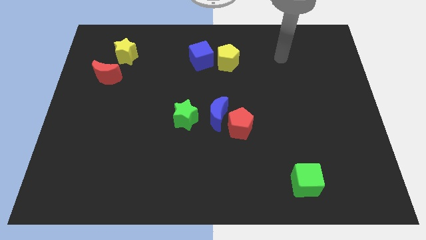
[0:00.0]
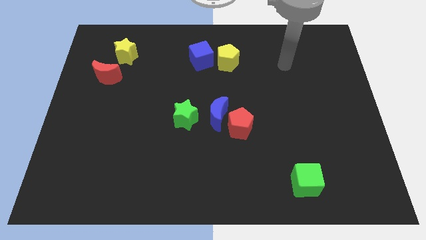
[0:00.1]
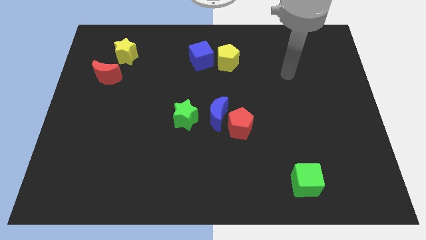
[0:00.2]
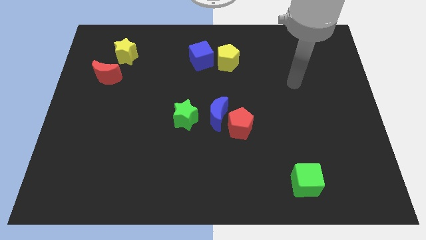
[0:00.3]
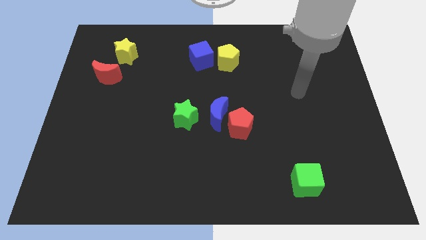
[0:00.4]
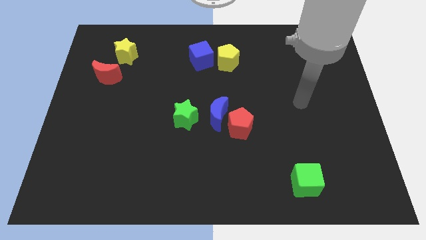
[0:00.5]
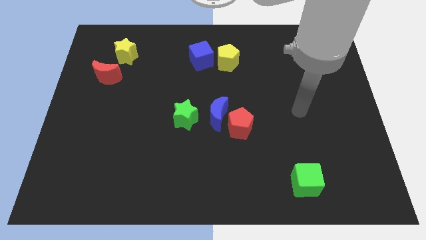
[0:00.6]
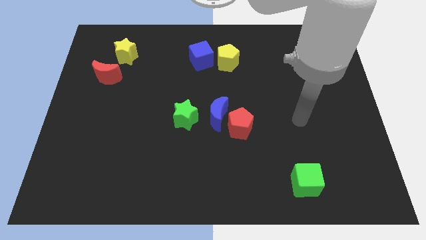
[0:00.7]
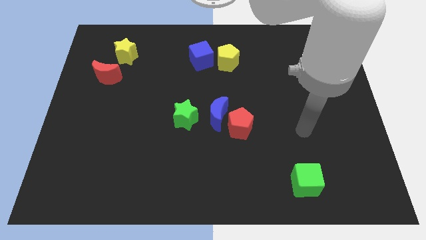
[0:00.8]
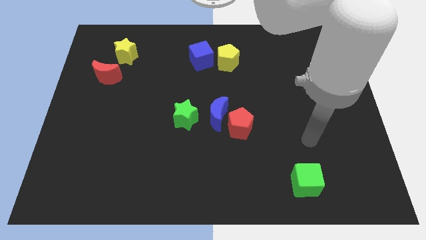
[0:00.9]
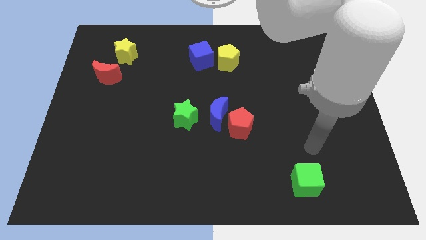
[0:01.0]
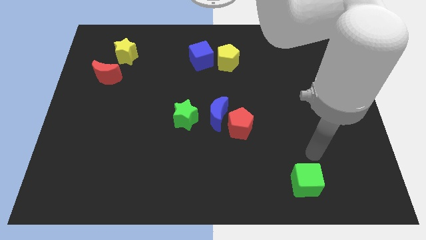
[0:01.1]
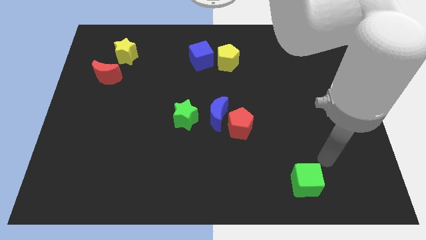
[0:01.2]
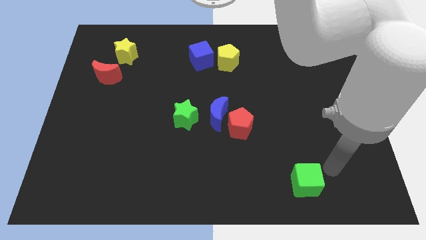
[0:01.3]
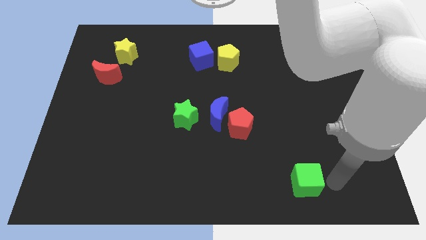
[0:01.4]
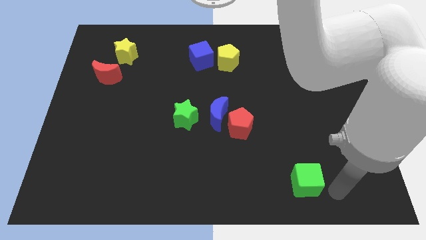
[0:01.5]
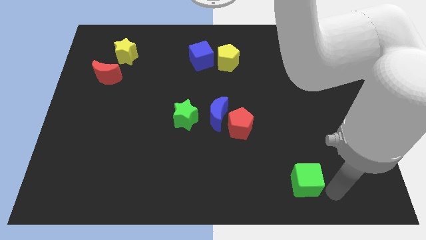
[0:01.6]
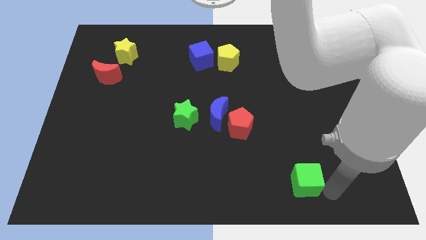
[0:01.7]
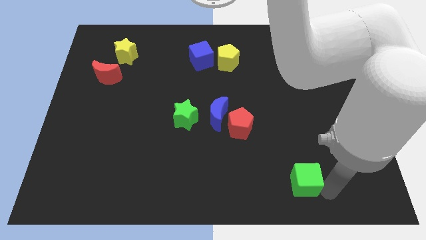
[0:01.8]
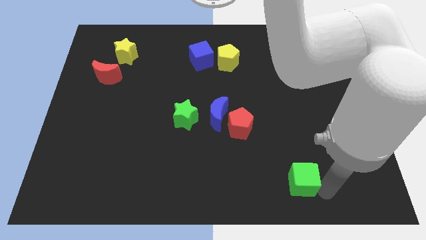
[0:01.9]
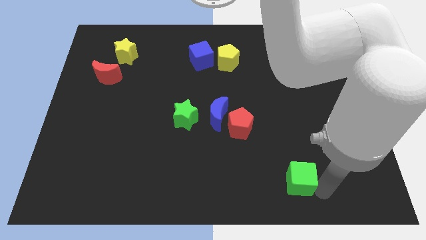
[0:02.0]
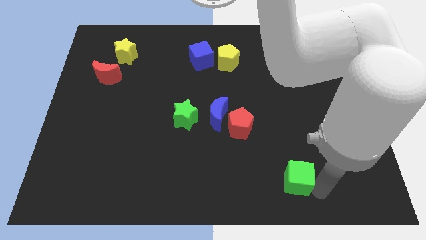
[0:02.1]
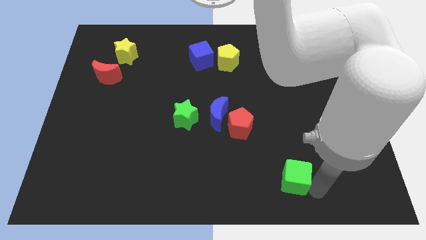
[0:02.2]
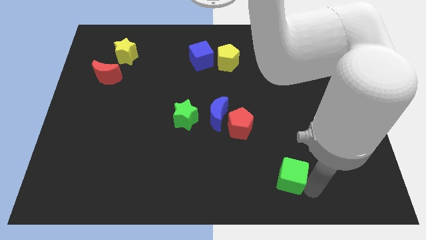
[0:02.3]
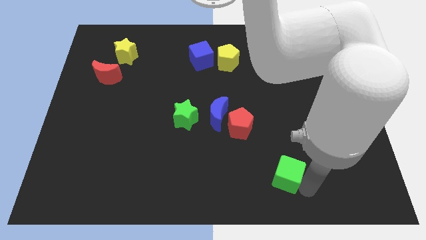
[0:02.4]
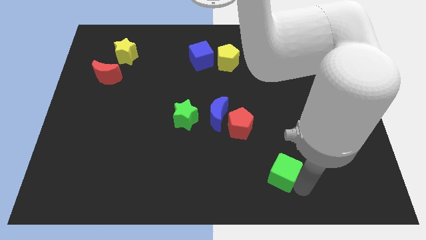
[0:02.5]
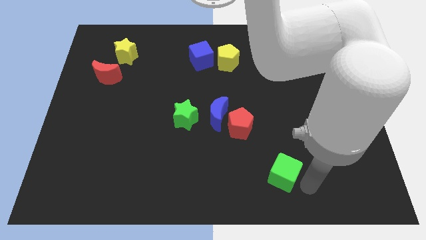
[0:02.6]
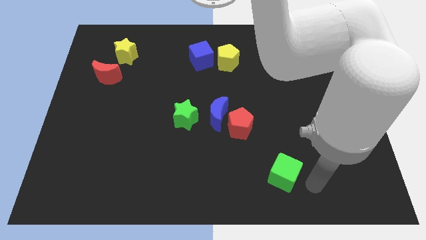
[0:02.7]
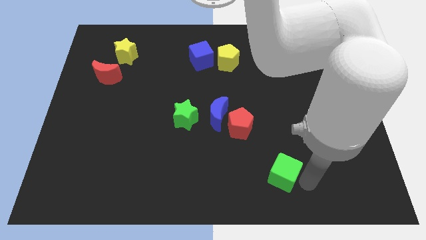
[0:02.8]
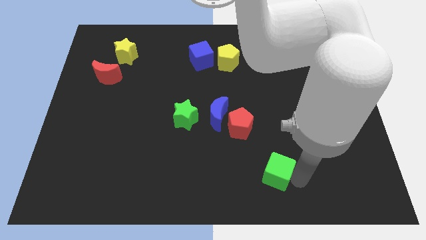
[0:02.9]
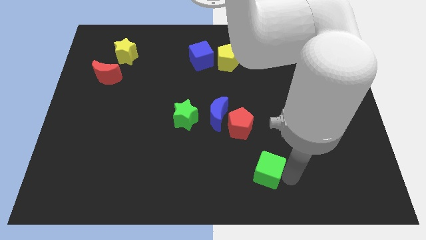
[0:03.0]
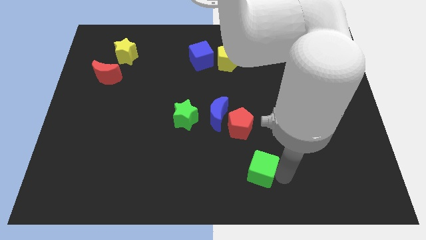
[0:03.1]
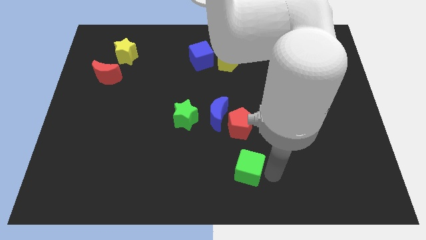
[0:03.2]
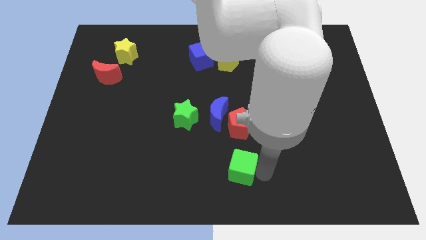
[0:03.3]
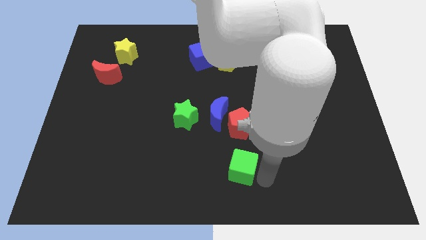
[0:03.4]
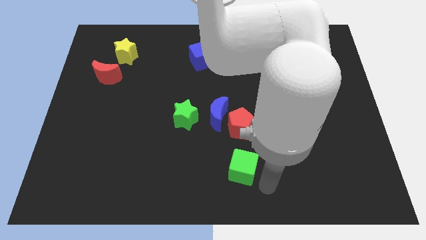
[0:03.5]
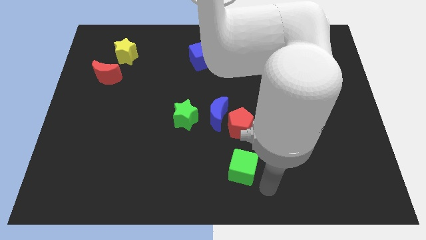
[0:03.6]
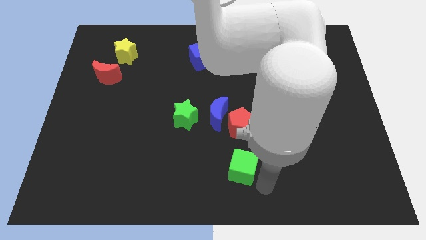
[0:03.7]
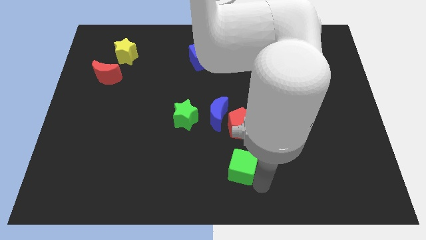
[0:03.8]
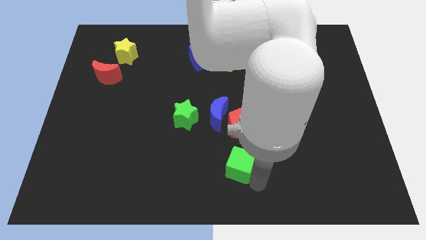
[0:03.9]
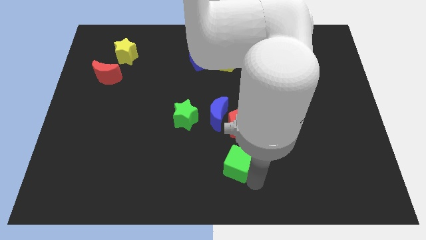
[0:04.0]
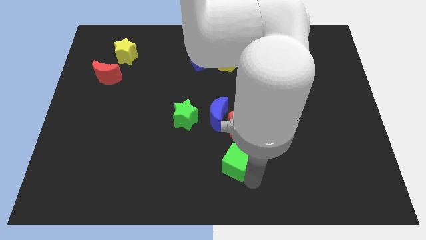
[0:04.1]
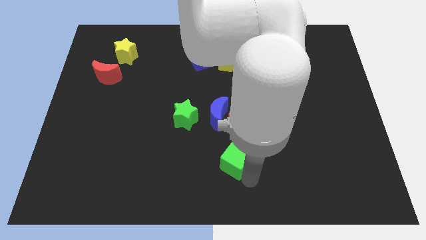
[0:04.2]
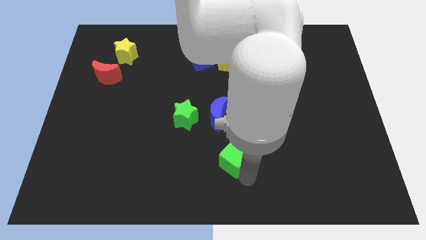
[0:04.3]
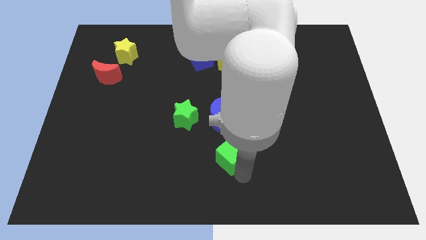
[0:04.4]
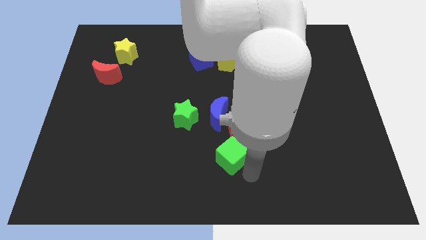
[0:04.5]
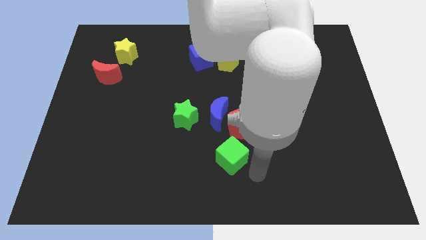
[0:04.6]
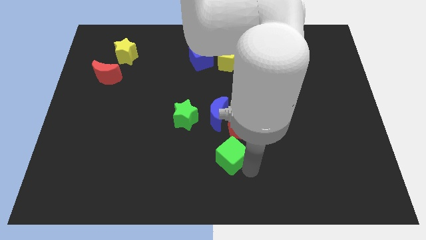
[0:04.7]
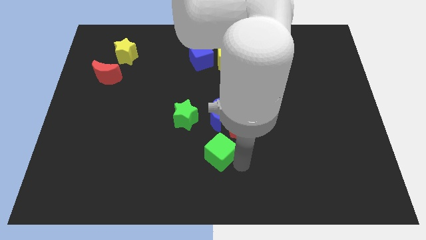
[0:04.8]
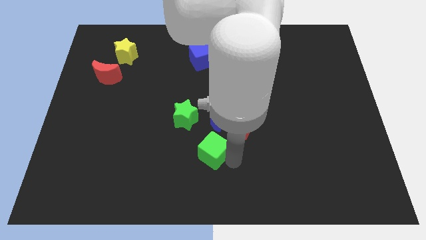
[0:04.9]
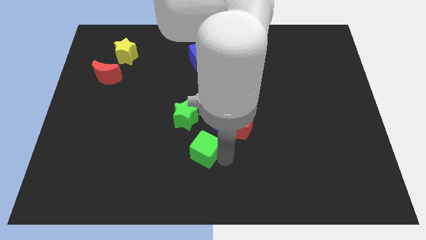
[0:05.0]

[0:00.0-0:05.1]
put the green cube to the bottom left side of the blue moon

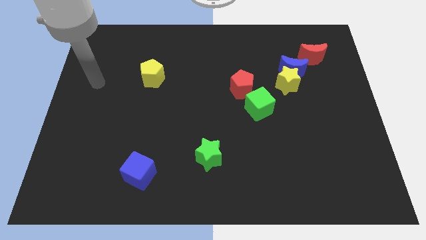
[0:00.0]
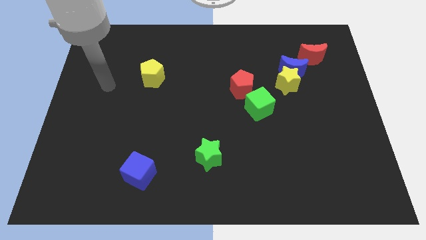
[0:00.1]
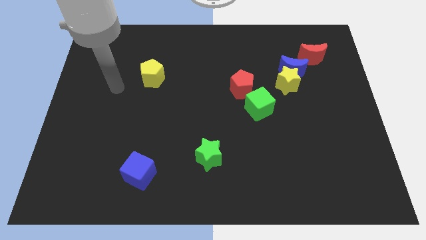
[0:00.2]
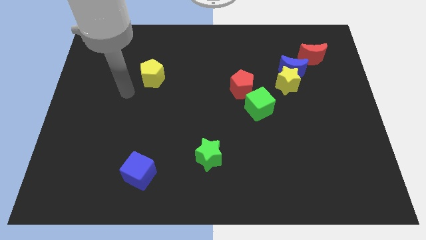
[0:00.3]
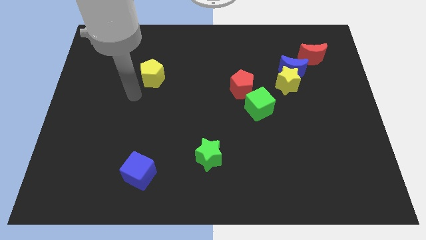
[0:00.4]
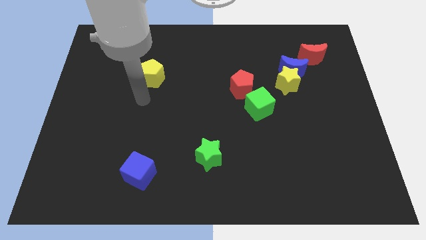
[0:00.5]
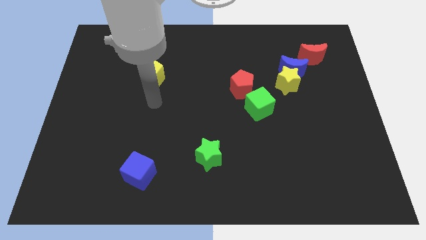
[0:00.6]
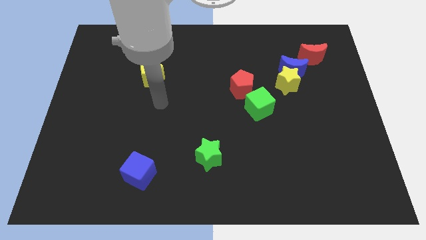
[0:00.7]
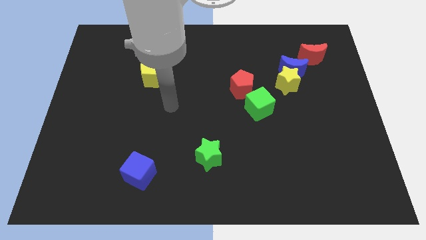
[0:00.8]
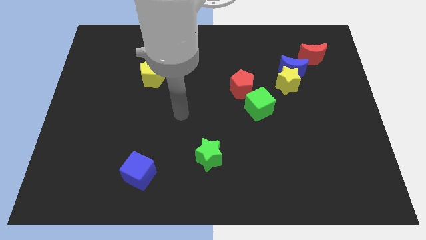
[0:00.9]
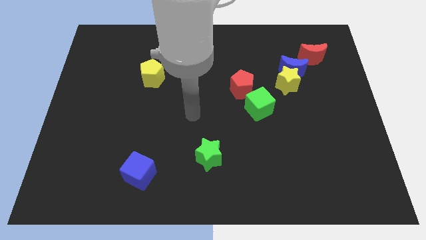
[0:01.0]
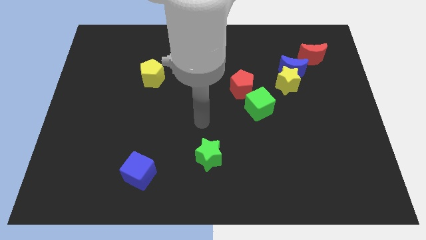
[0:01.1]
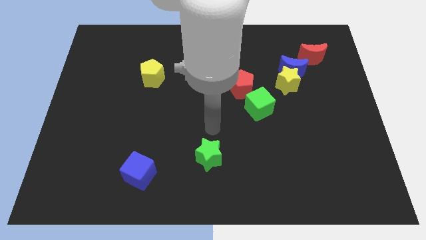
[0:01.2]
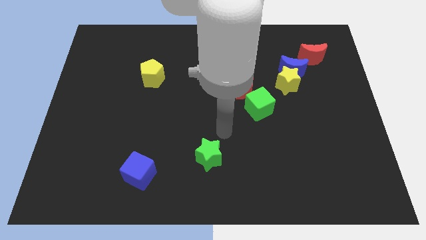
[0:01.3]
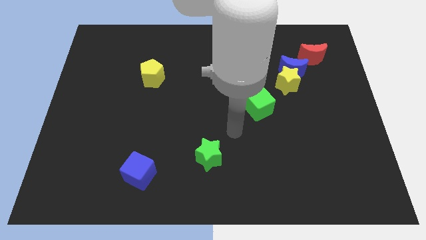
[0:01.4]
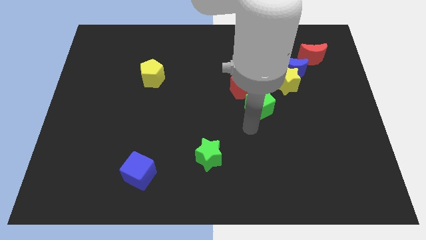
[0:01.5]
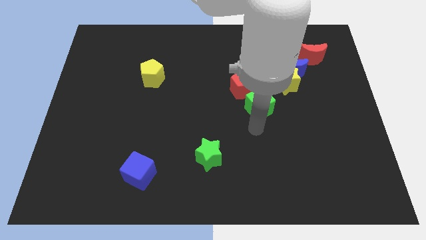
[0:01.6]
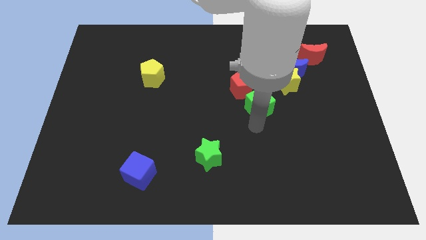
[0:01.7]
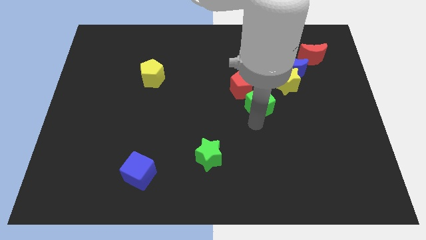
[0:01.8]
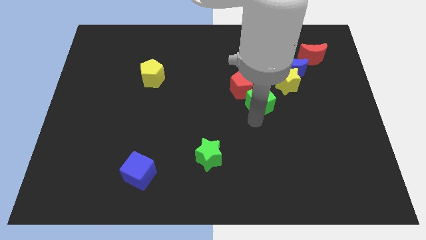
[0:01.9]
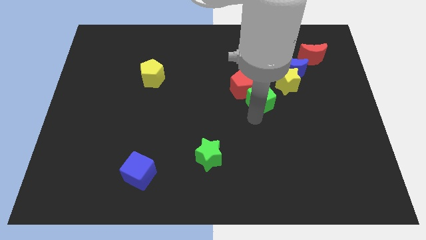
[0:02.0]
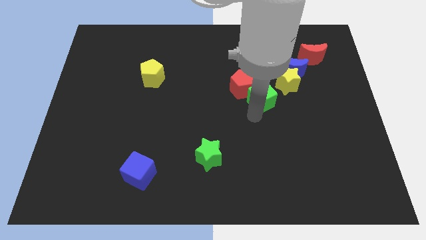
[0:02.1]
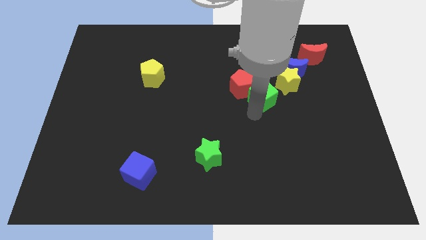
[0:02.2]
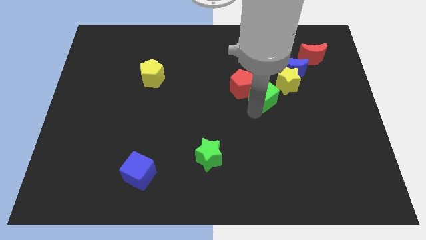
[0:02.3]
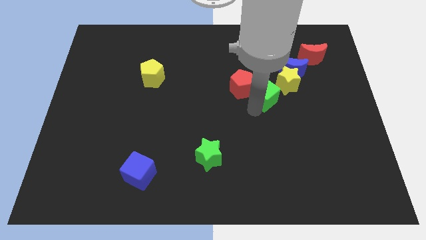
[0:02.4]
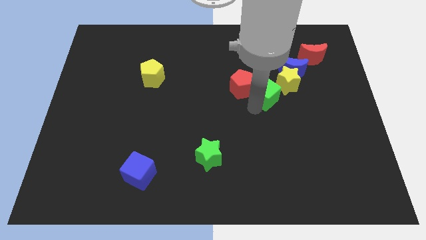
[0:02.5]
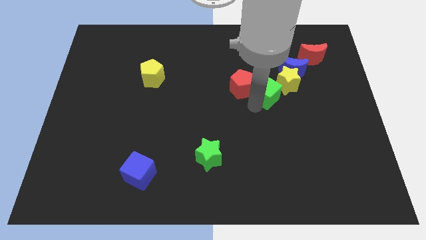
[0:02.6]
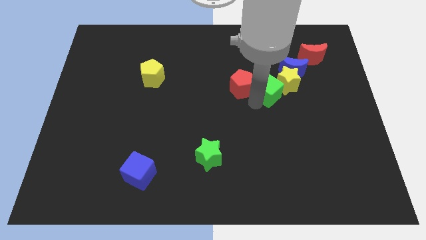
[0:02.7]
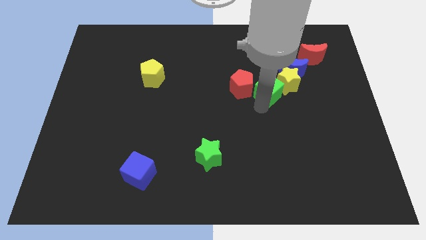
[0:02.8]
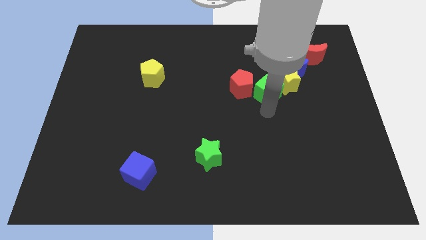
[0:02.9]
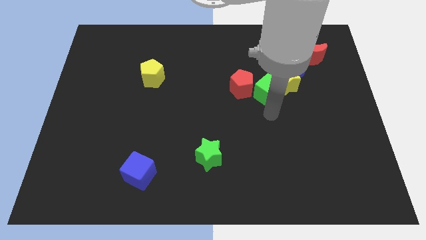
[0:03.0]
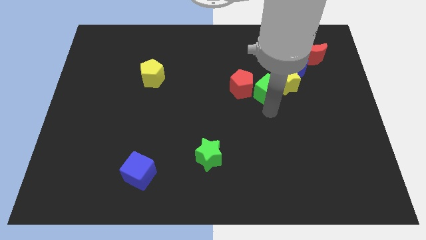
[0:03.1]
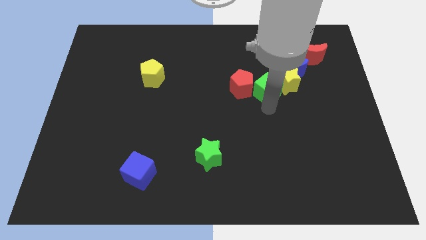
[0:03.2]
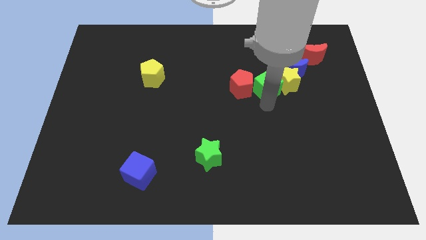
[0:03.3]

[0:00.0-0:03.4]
put the green cube to the top left of the yellow star

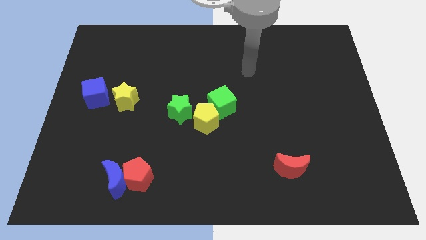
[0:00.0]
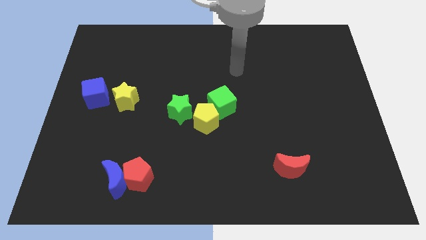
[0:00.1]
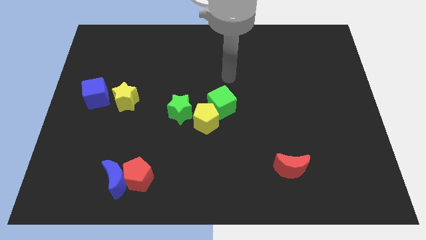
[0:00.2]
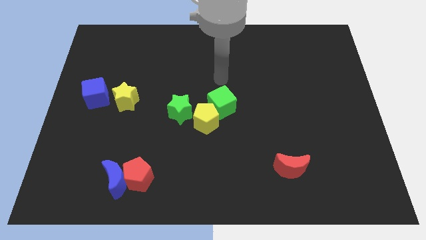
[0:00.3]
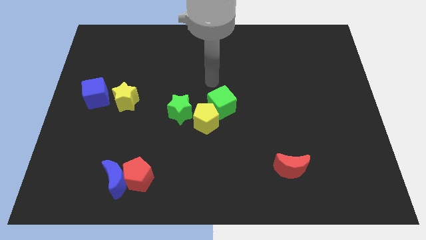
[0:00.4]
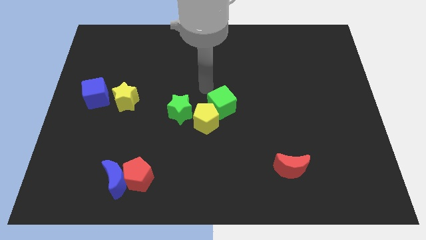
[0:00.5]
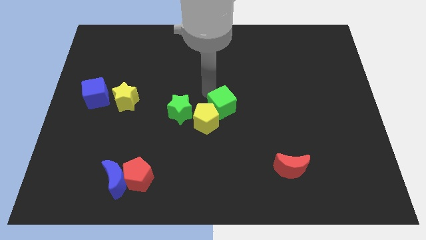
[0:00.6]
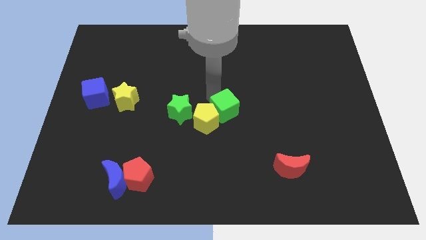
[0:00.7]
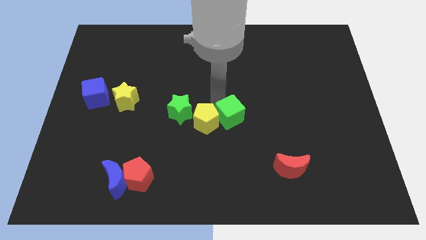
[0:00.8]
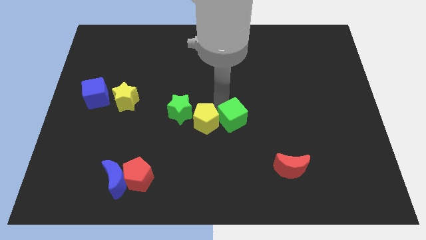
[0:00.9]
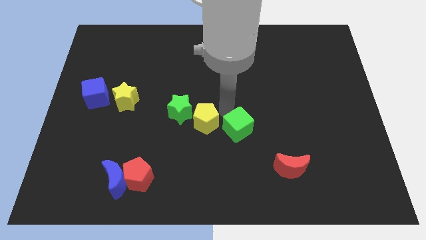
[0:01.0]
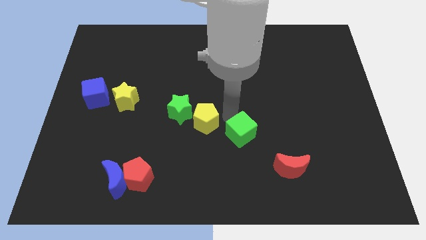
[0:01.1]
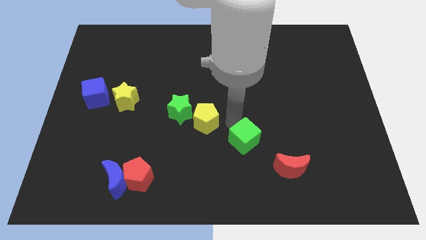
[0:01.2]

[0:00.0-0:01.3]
move the green cube to the top left of the red moon
